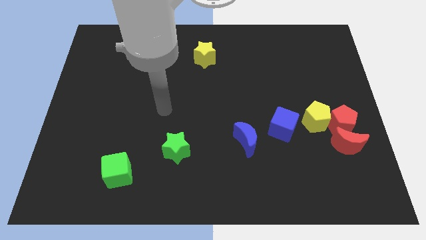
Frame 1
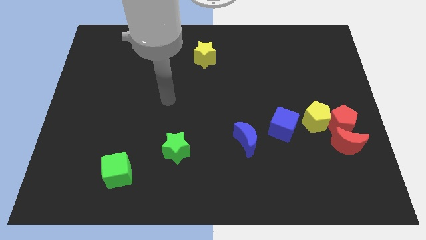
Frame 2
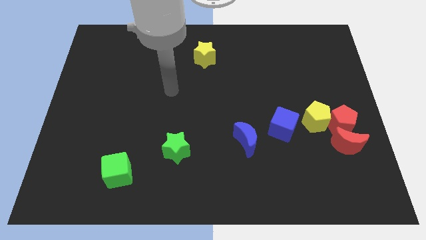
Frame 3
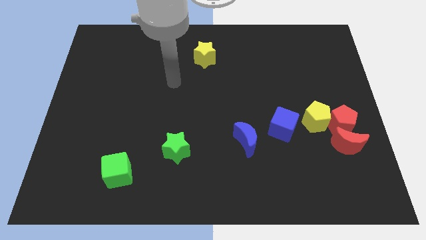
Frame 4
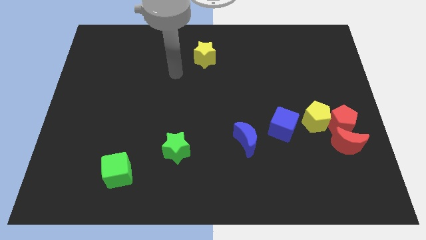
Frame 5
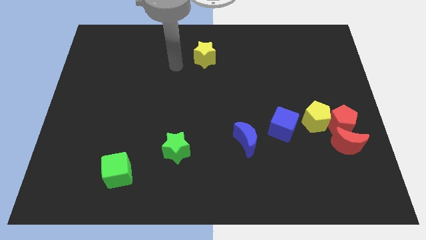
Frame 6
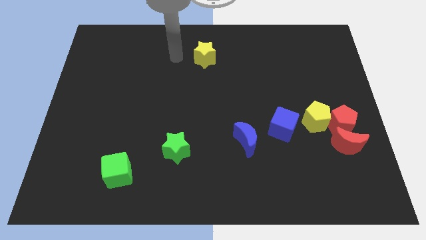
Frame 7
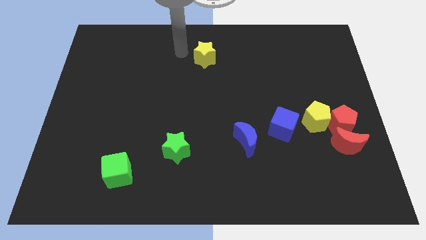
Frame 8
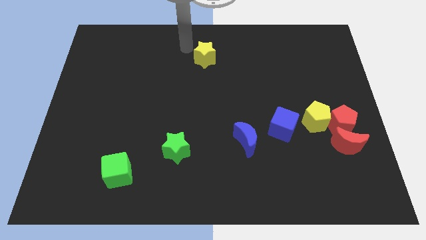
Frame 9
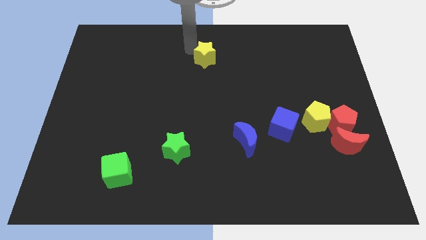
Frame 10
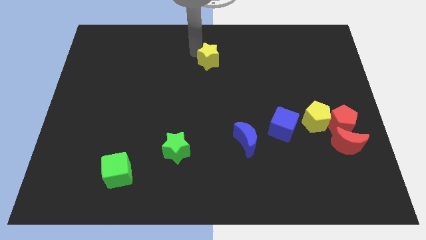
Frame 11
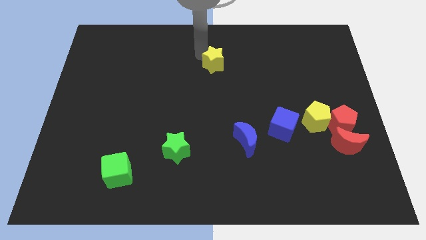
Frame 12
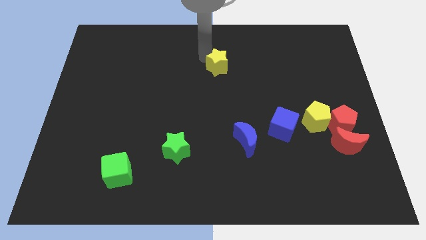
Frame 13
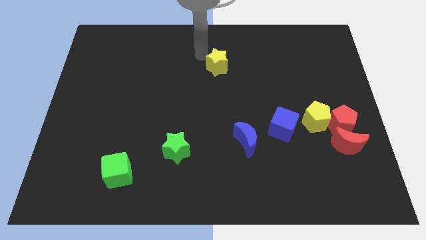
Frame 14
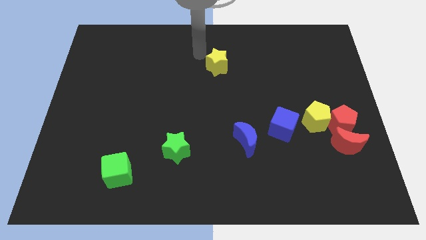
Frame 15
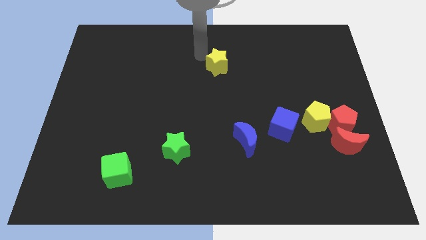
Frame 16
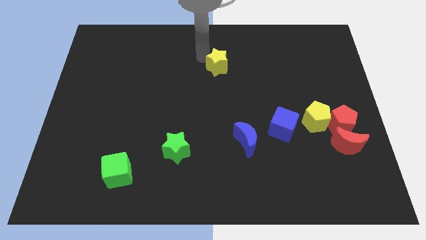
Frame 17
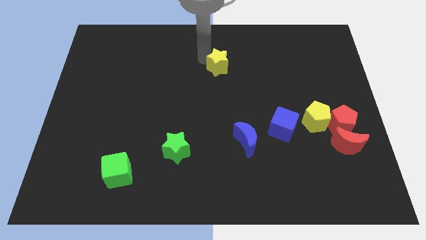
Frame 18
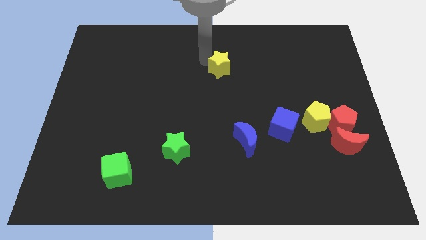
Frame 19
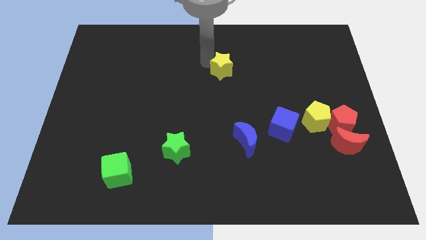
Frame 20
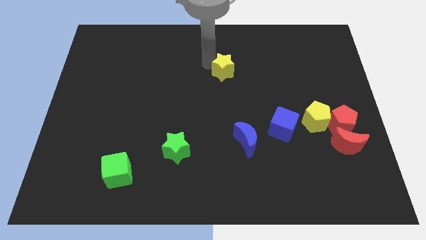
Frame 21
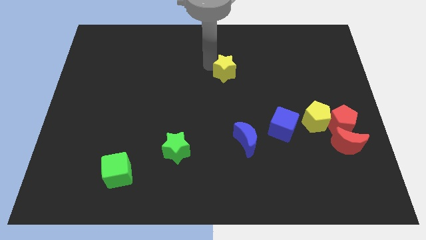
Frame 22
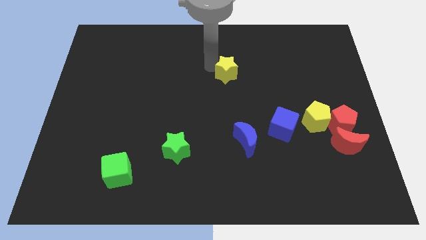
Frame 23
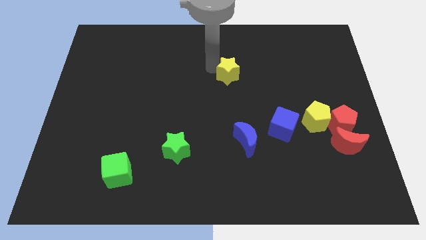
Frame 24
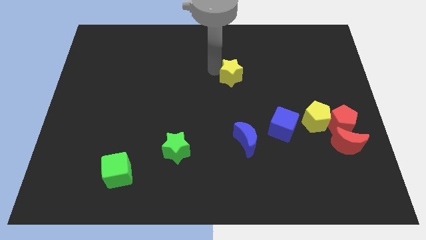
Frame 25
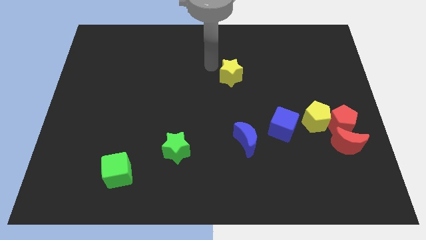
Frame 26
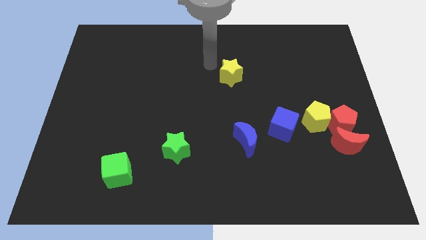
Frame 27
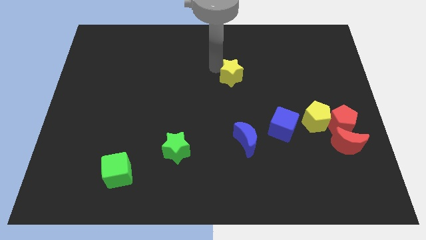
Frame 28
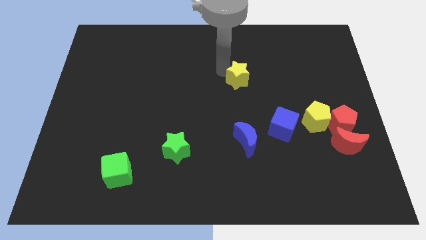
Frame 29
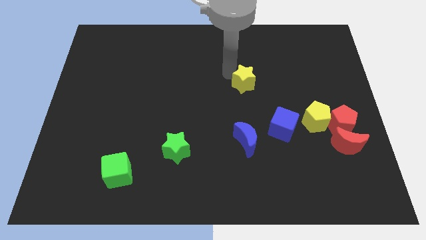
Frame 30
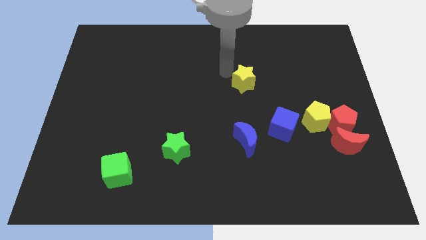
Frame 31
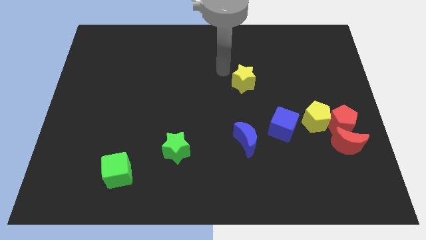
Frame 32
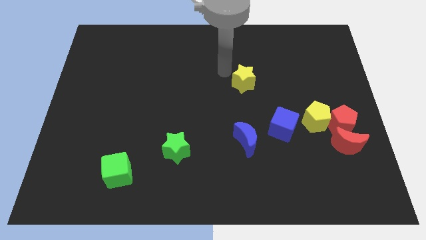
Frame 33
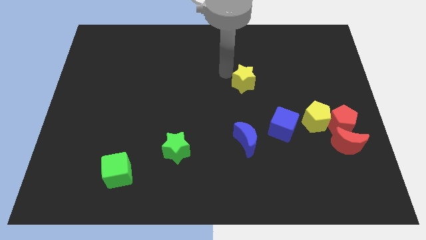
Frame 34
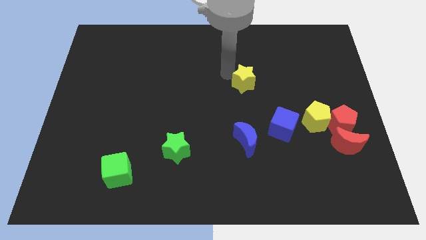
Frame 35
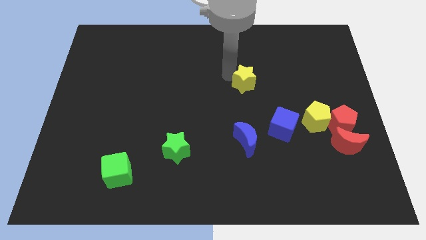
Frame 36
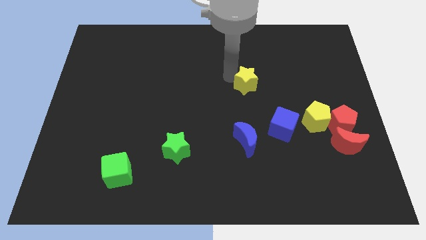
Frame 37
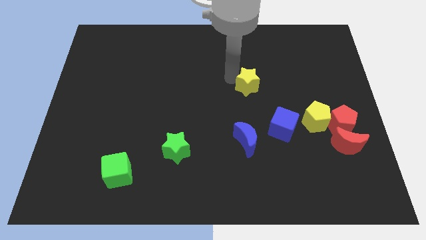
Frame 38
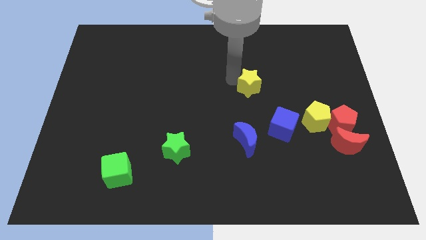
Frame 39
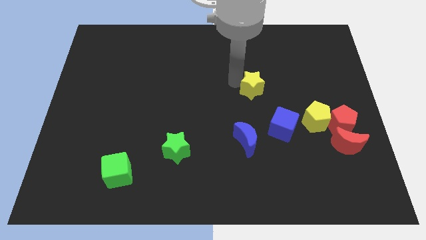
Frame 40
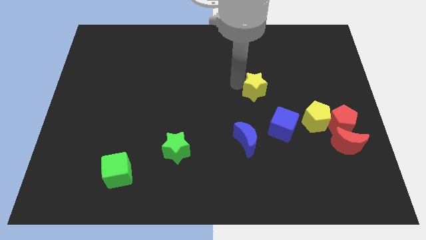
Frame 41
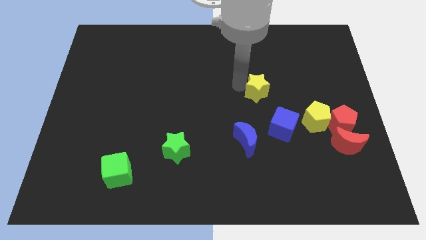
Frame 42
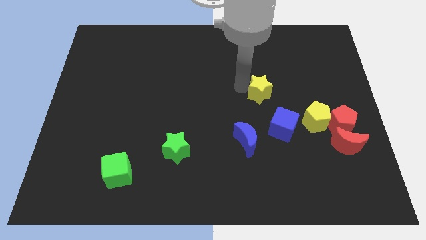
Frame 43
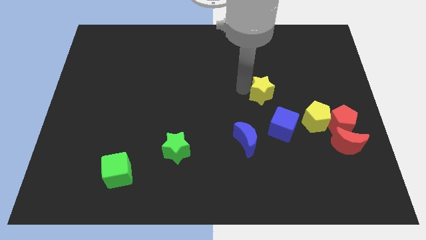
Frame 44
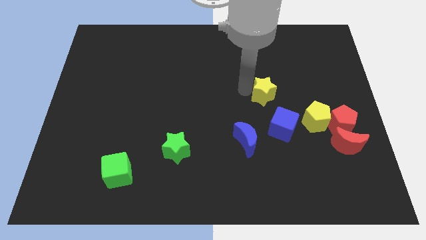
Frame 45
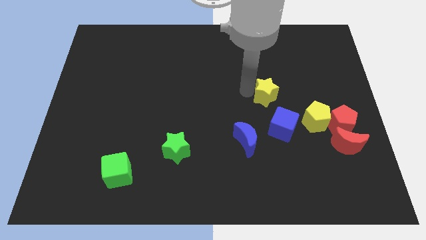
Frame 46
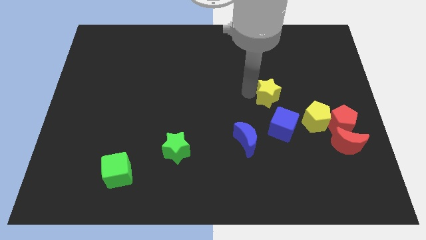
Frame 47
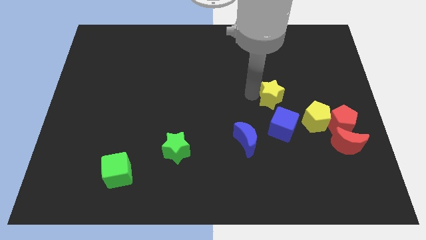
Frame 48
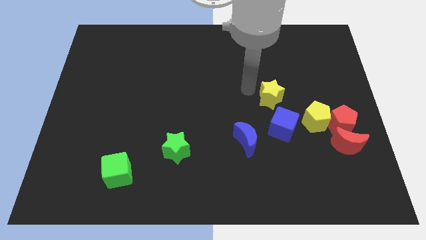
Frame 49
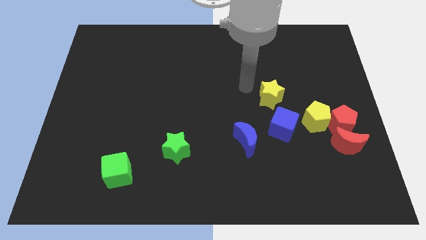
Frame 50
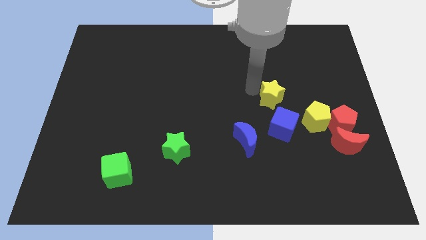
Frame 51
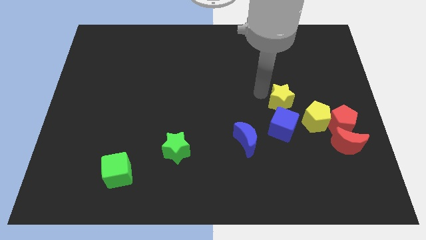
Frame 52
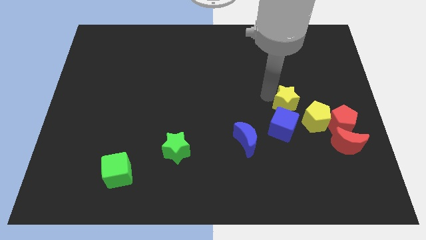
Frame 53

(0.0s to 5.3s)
move the yellow star to the top right of the blue cube

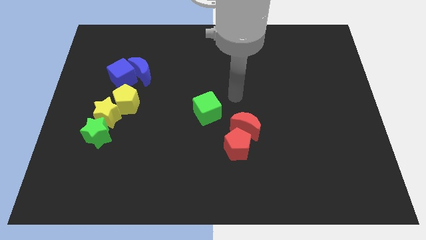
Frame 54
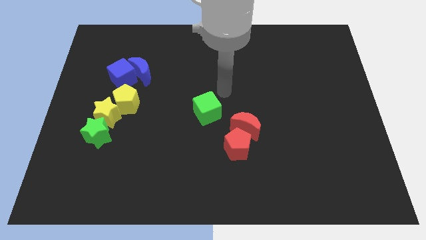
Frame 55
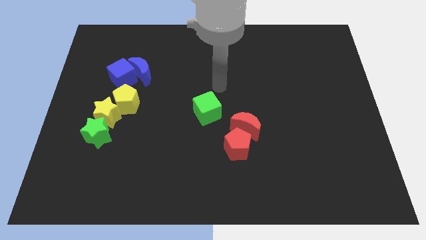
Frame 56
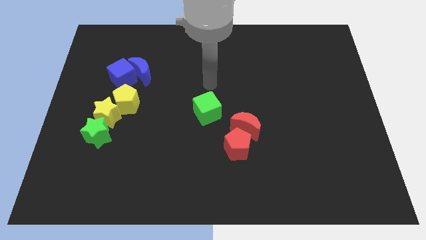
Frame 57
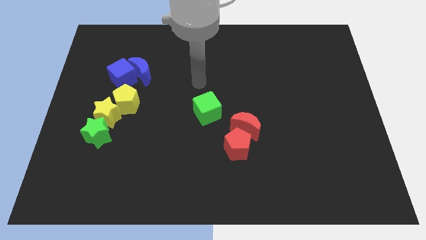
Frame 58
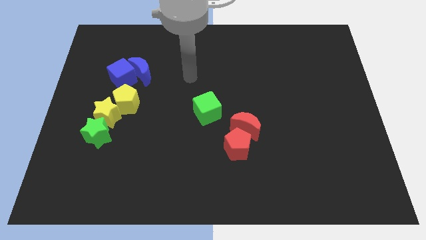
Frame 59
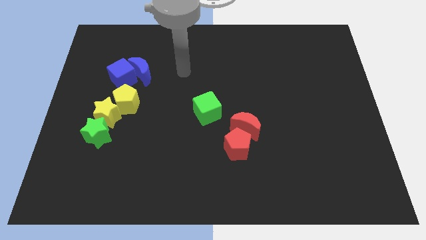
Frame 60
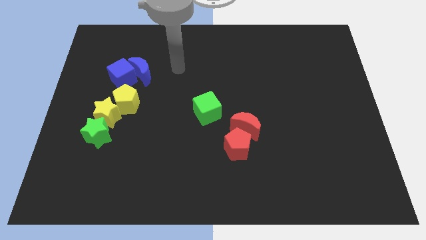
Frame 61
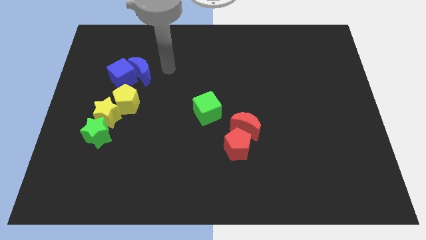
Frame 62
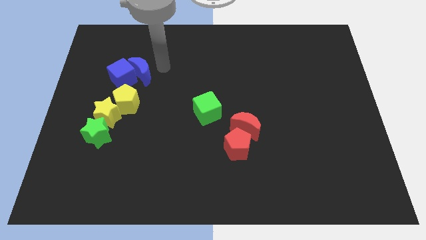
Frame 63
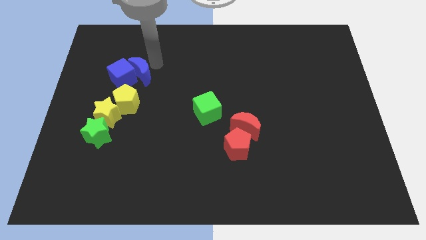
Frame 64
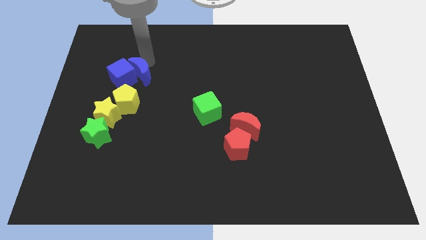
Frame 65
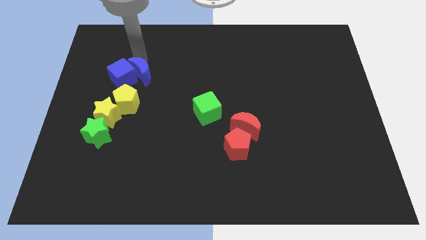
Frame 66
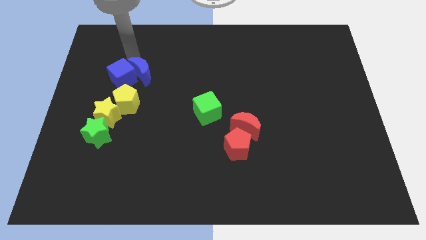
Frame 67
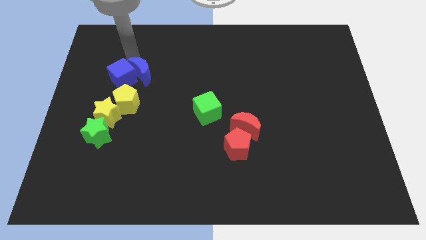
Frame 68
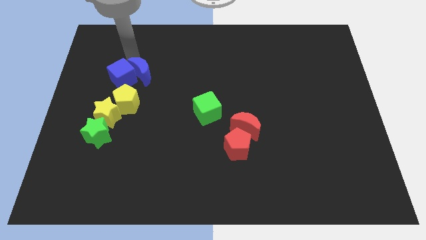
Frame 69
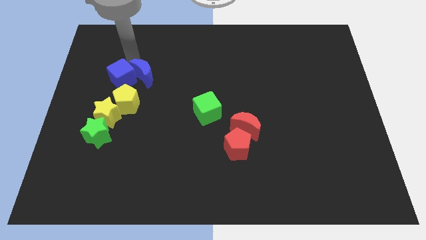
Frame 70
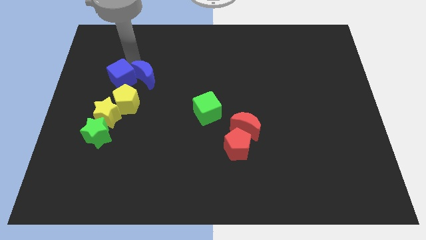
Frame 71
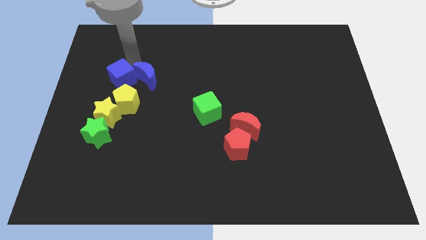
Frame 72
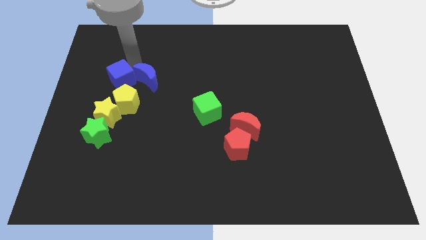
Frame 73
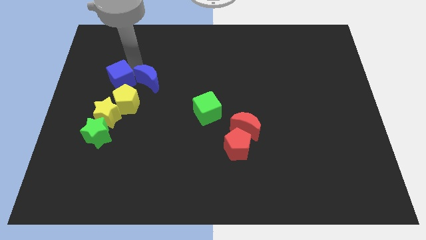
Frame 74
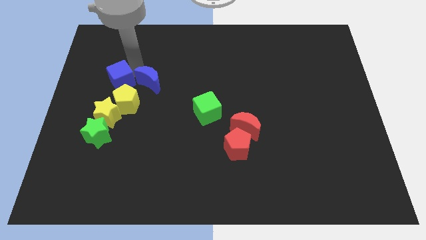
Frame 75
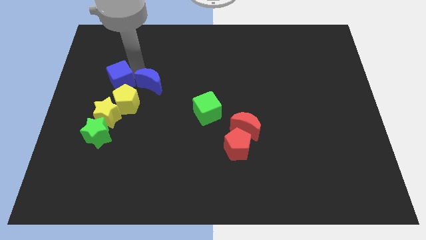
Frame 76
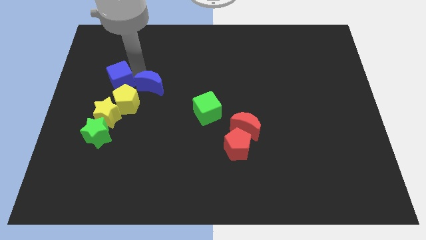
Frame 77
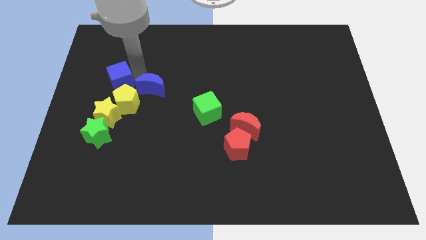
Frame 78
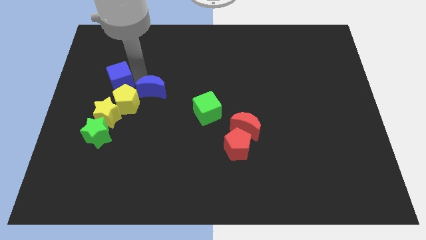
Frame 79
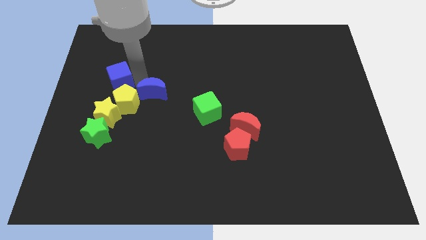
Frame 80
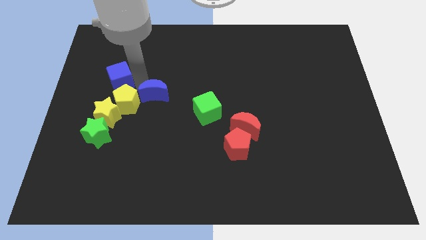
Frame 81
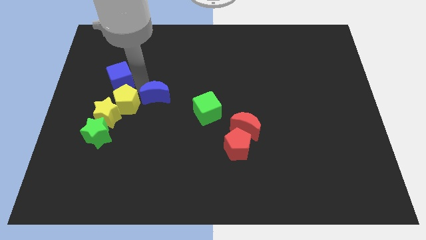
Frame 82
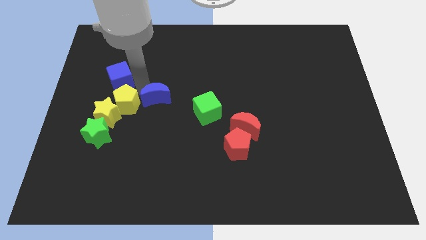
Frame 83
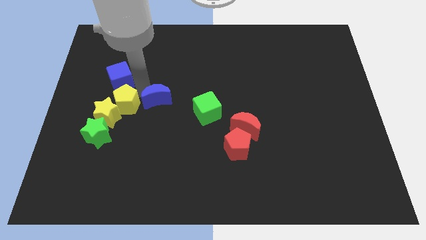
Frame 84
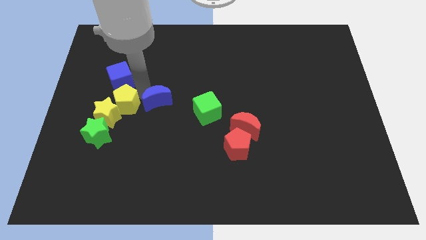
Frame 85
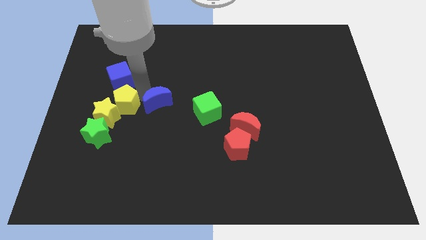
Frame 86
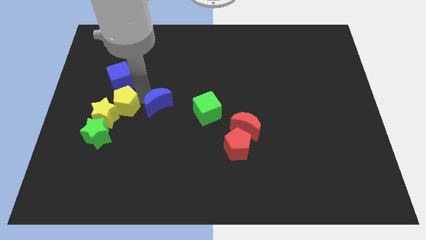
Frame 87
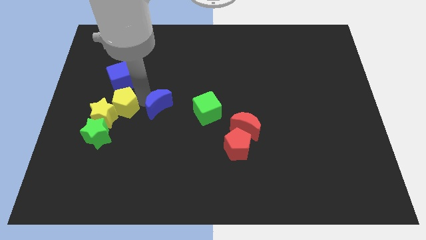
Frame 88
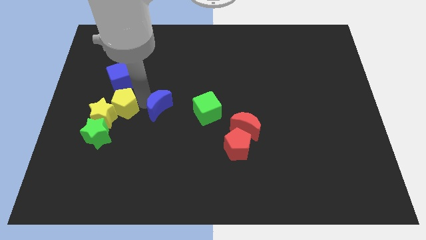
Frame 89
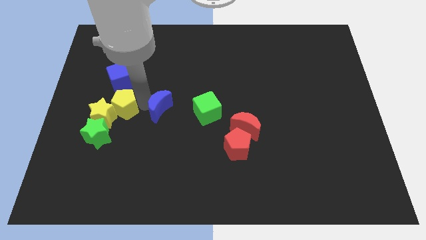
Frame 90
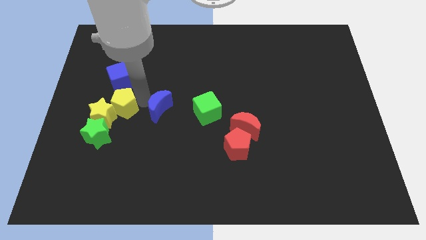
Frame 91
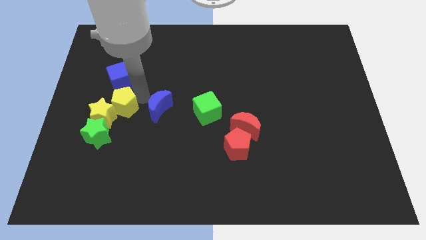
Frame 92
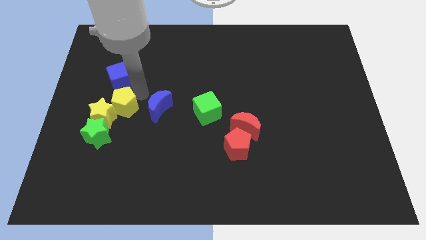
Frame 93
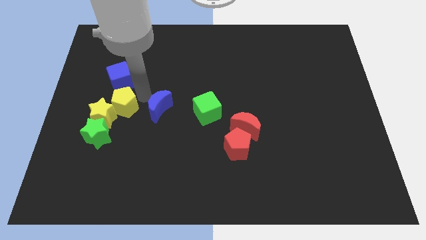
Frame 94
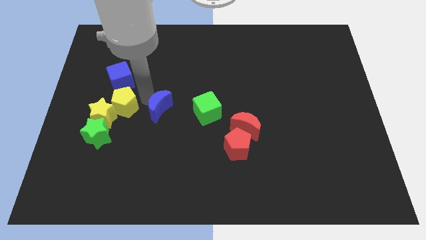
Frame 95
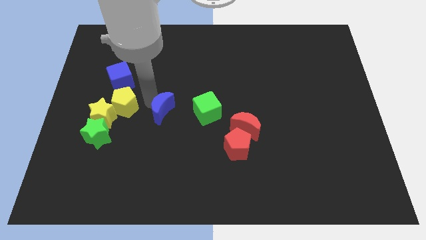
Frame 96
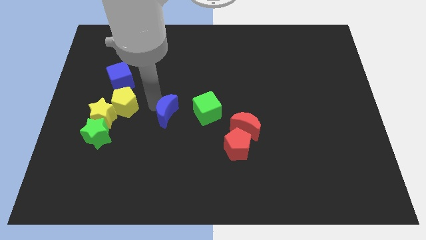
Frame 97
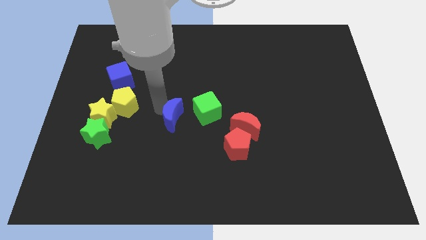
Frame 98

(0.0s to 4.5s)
move the blue moon diagonally down and to the left of the green cube
